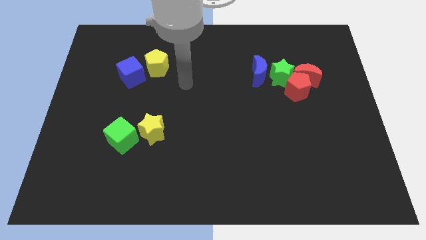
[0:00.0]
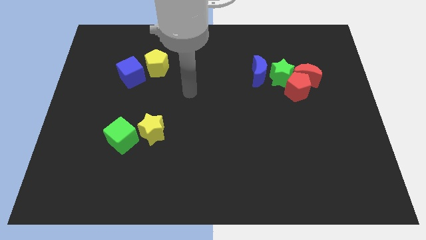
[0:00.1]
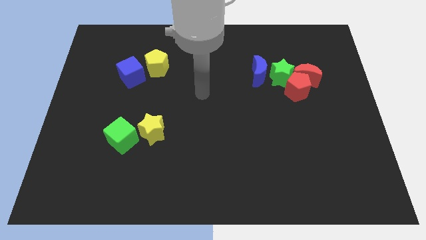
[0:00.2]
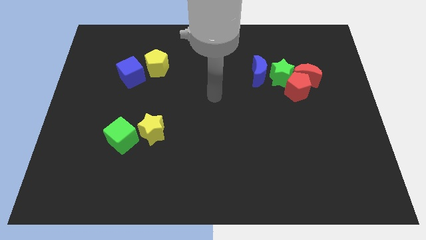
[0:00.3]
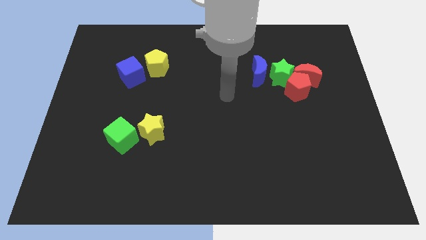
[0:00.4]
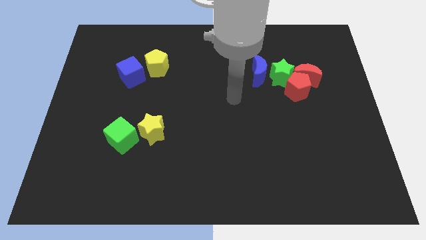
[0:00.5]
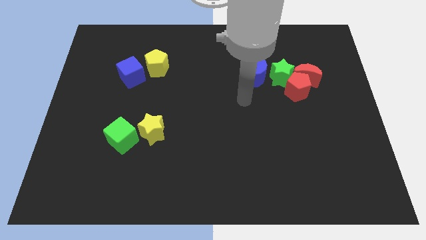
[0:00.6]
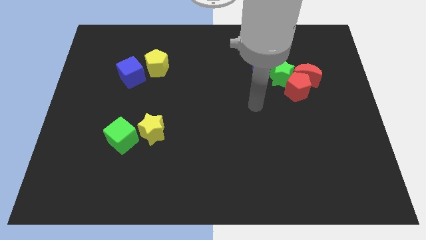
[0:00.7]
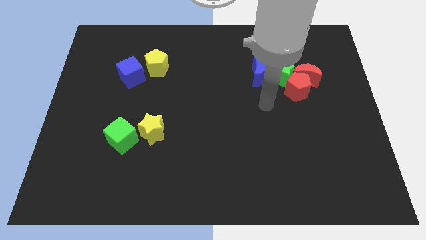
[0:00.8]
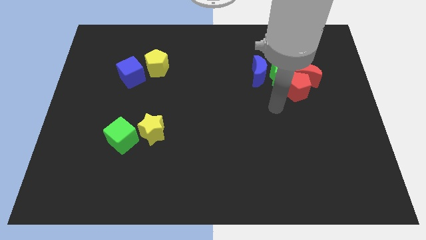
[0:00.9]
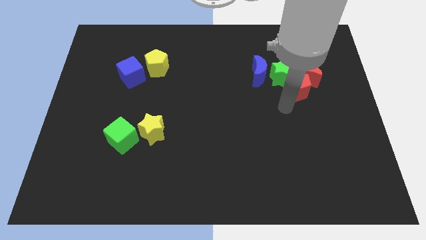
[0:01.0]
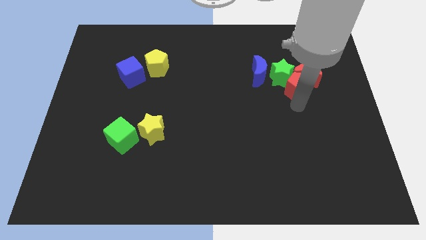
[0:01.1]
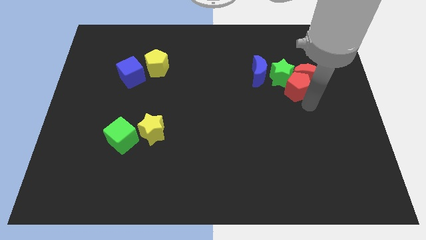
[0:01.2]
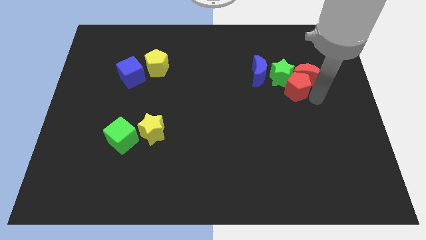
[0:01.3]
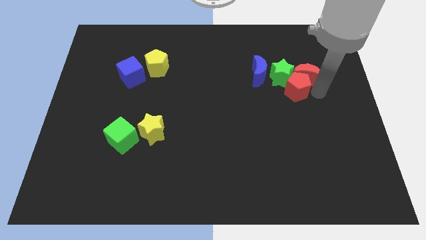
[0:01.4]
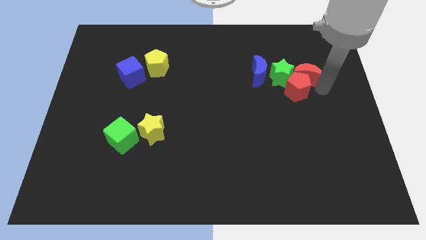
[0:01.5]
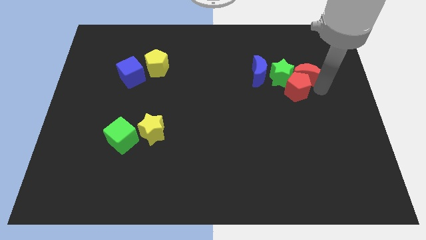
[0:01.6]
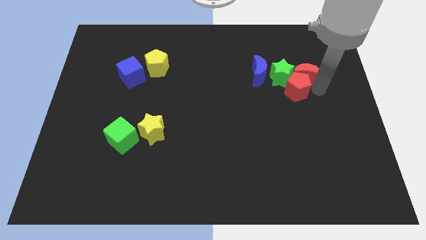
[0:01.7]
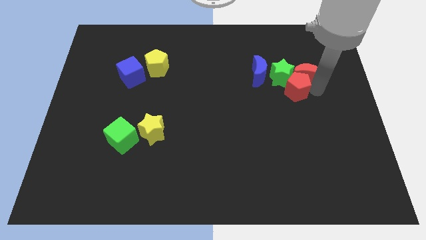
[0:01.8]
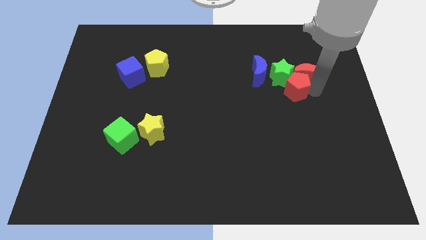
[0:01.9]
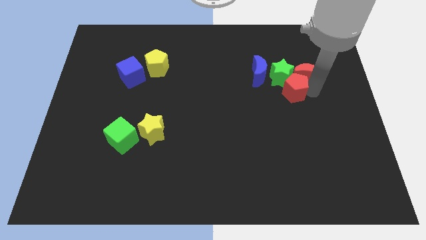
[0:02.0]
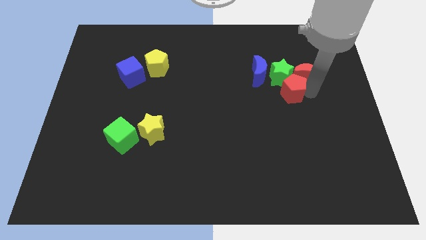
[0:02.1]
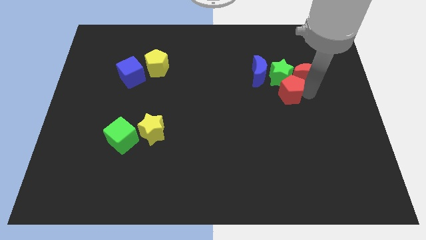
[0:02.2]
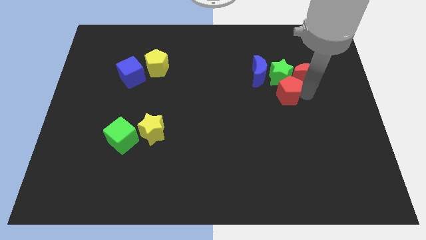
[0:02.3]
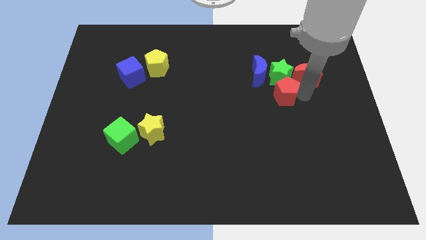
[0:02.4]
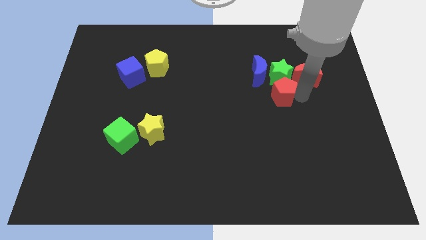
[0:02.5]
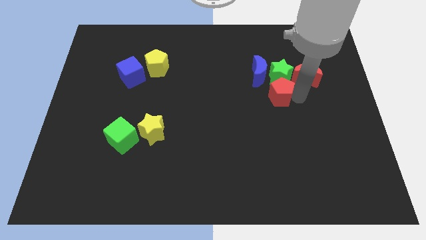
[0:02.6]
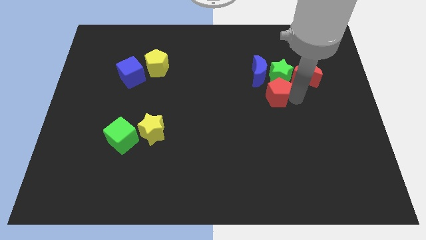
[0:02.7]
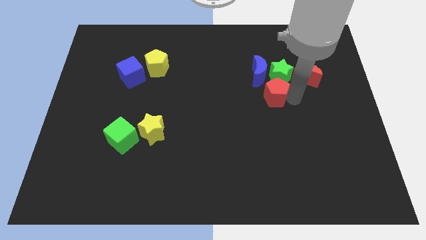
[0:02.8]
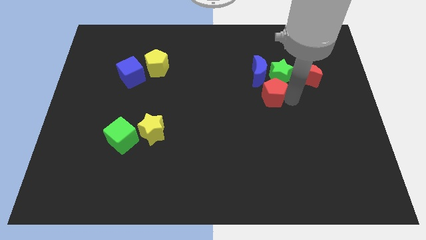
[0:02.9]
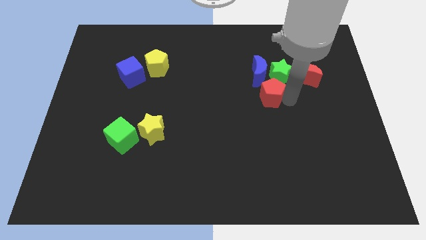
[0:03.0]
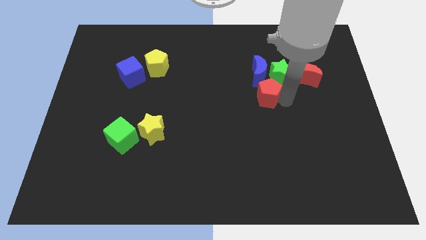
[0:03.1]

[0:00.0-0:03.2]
move the red pentagon a bit left

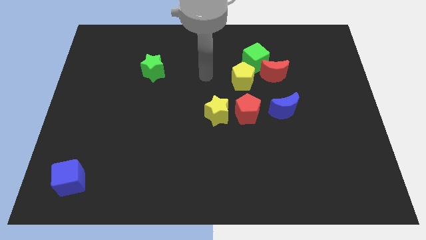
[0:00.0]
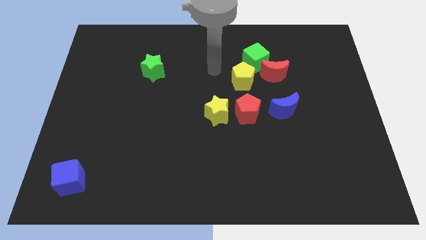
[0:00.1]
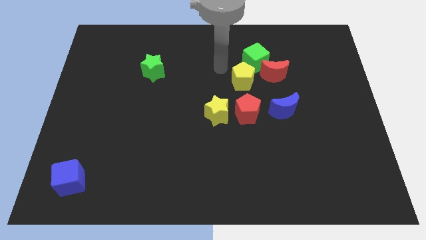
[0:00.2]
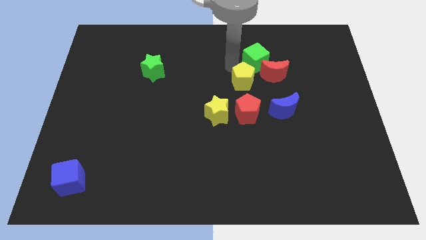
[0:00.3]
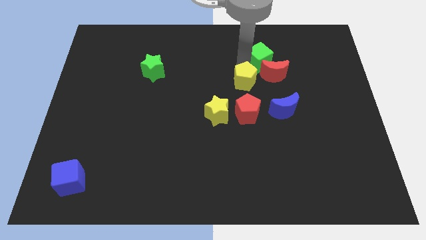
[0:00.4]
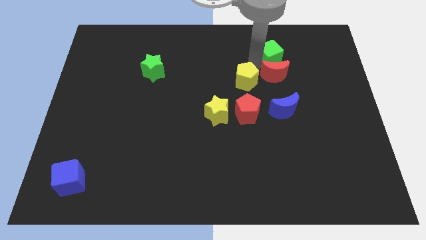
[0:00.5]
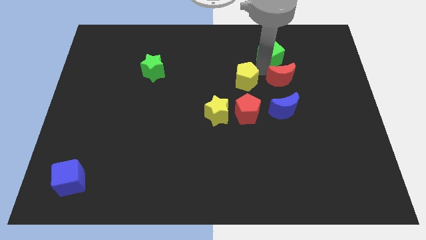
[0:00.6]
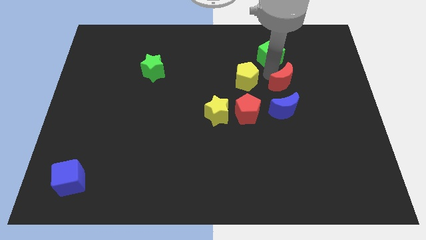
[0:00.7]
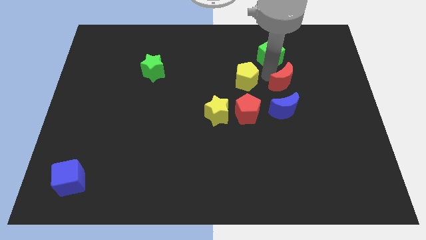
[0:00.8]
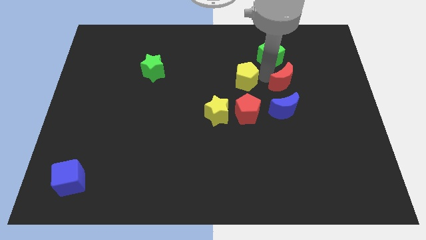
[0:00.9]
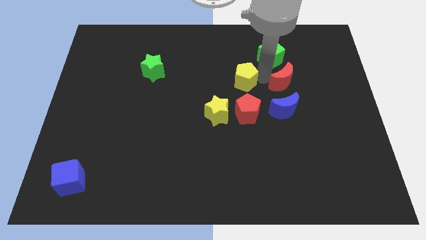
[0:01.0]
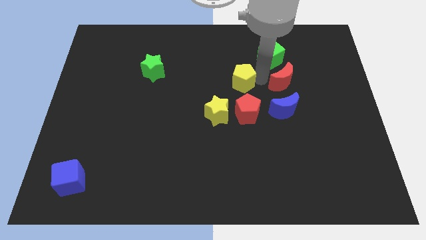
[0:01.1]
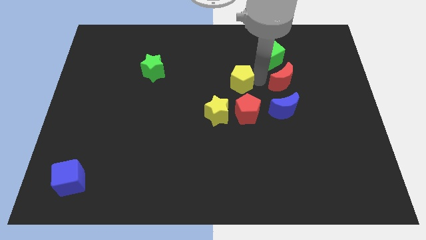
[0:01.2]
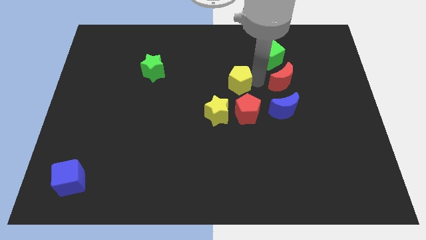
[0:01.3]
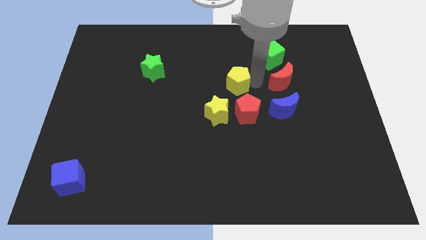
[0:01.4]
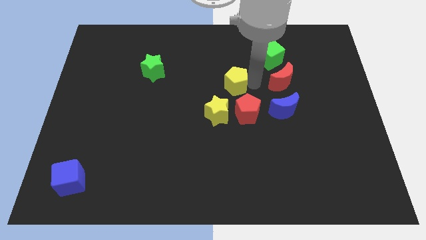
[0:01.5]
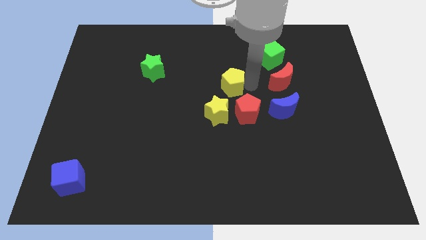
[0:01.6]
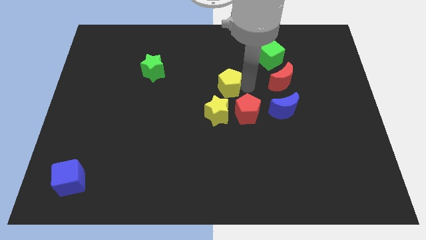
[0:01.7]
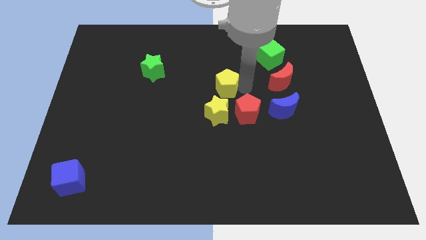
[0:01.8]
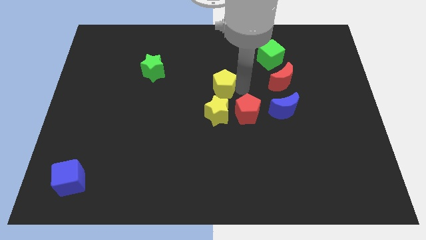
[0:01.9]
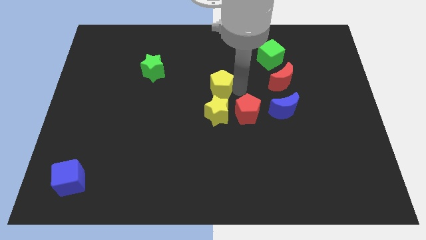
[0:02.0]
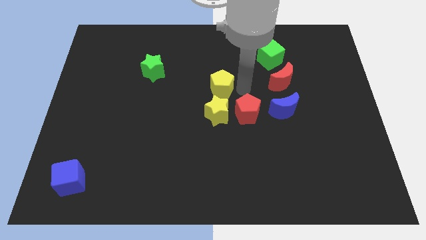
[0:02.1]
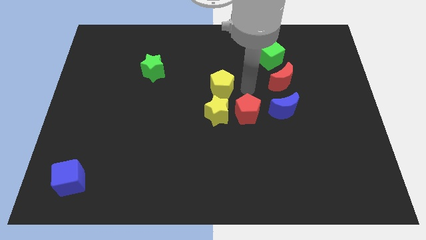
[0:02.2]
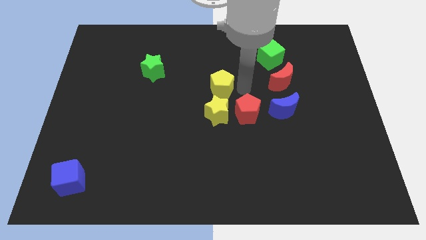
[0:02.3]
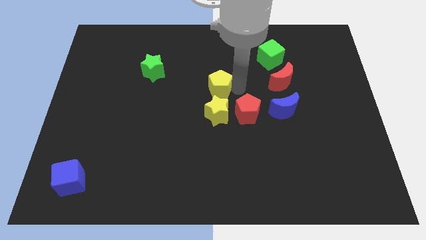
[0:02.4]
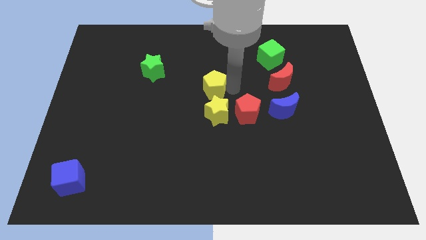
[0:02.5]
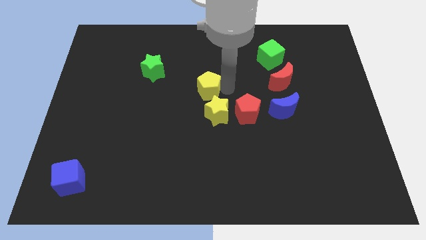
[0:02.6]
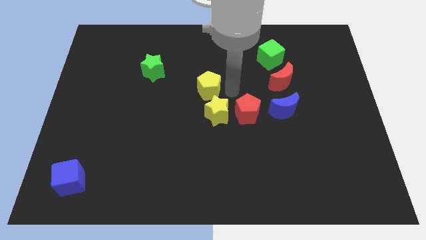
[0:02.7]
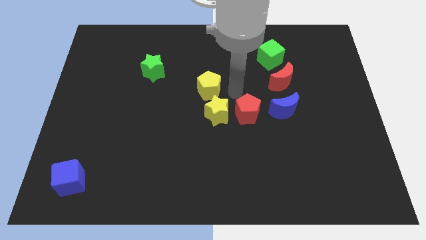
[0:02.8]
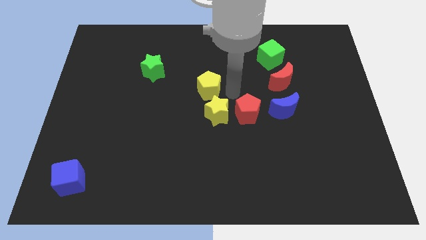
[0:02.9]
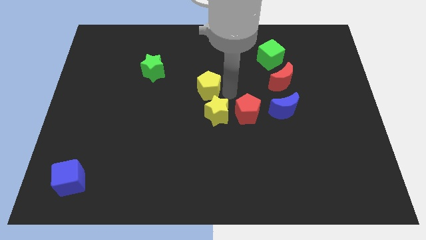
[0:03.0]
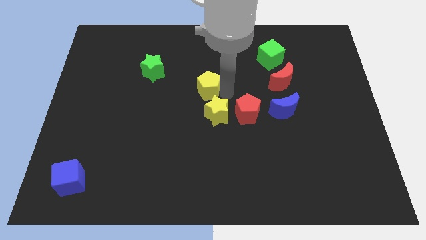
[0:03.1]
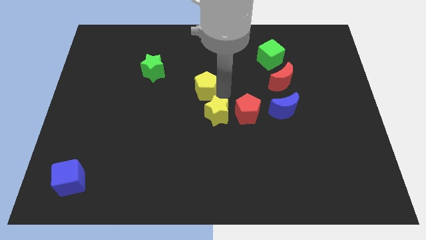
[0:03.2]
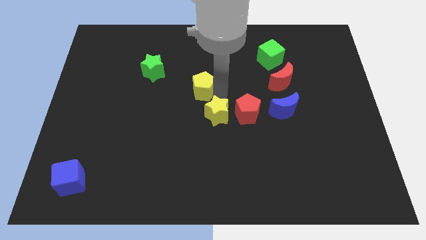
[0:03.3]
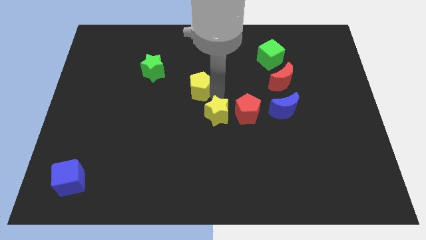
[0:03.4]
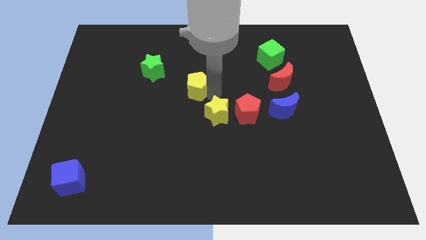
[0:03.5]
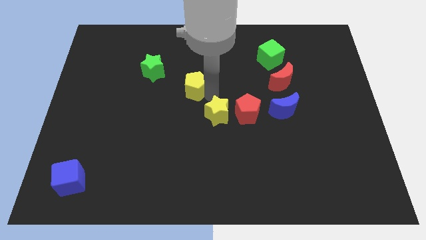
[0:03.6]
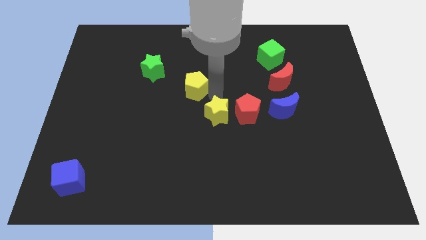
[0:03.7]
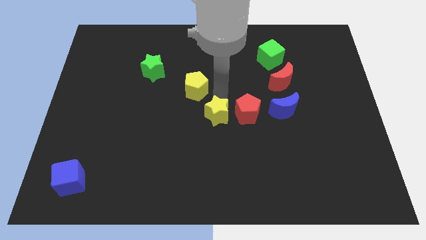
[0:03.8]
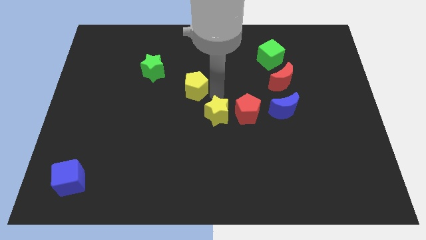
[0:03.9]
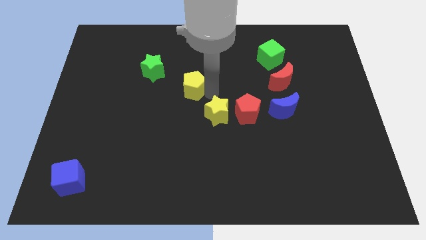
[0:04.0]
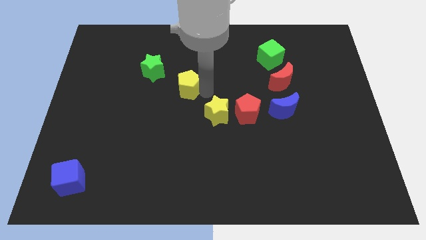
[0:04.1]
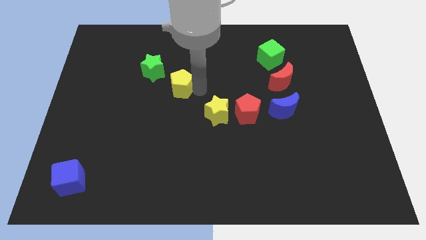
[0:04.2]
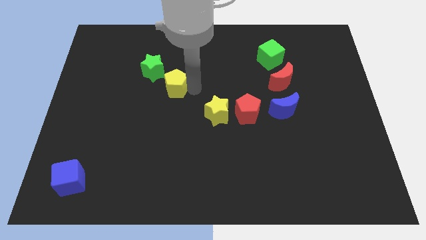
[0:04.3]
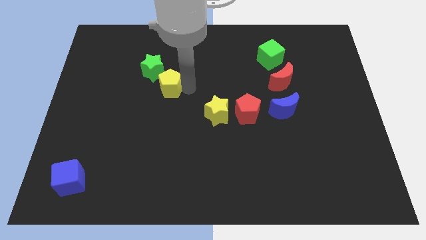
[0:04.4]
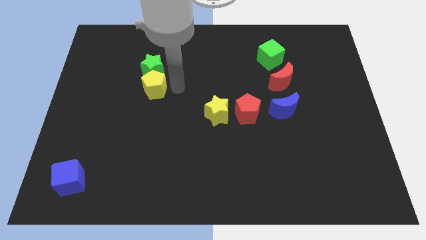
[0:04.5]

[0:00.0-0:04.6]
move the yellow pentagon left
